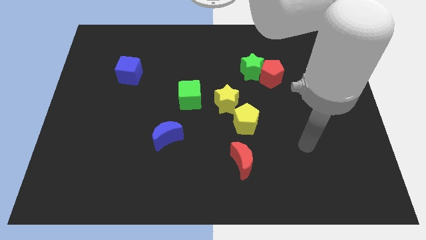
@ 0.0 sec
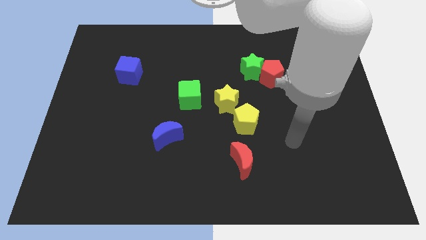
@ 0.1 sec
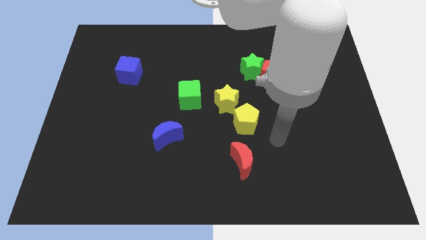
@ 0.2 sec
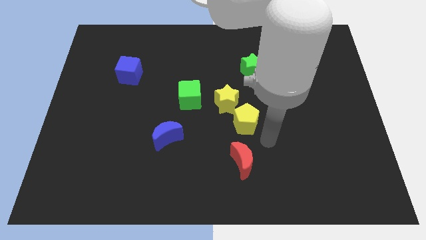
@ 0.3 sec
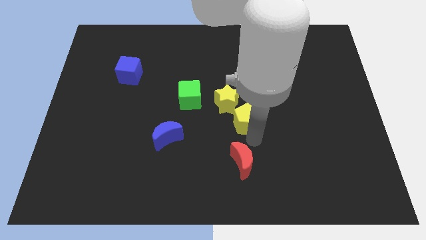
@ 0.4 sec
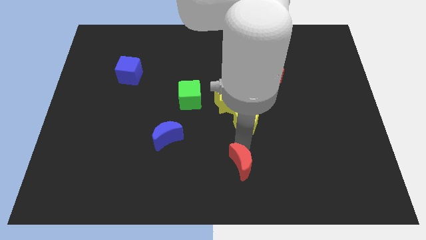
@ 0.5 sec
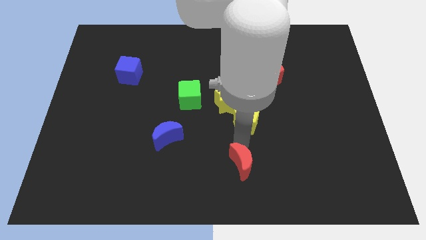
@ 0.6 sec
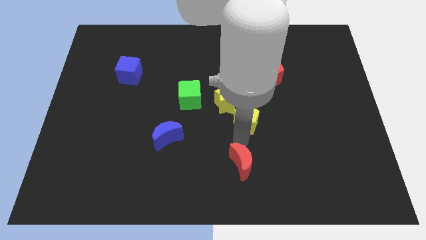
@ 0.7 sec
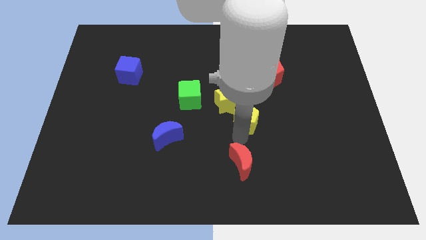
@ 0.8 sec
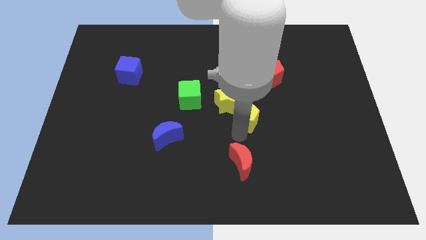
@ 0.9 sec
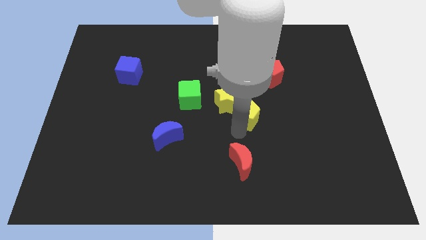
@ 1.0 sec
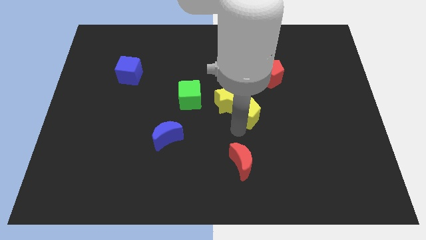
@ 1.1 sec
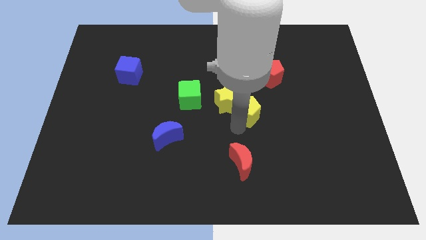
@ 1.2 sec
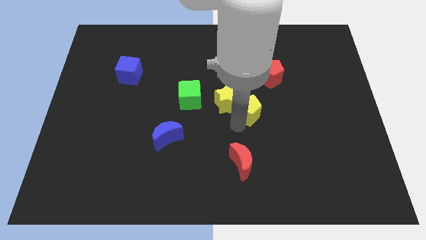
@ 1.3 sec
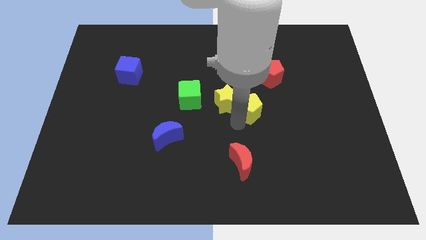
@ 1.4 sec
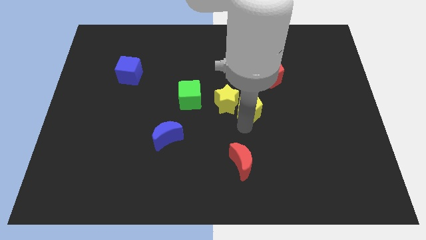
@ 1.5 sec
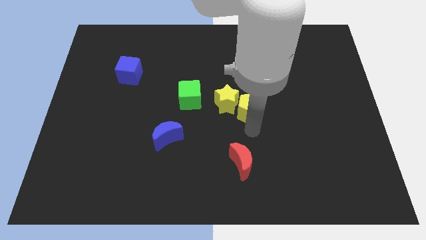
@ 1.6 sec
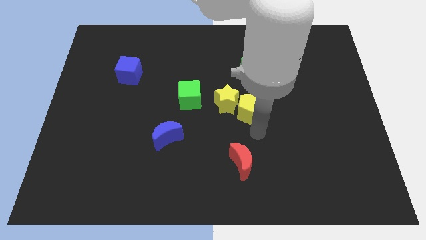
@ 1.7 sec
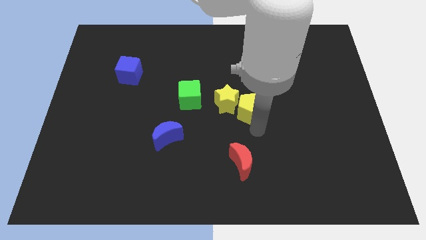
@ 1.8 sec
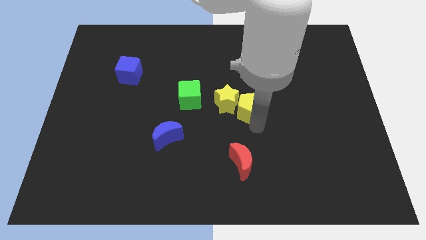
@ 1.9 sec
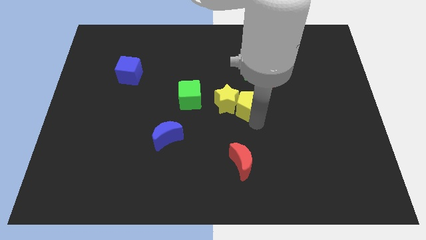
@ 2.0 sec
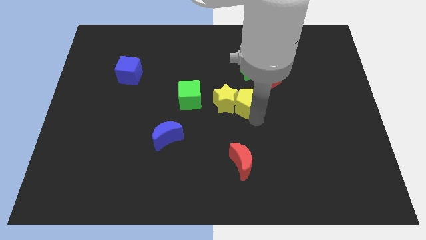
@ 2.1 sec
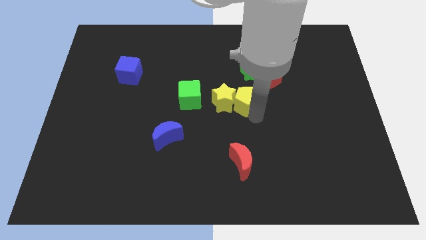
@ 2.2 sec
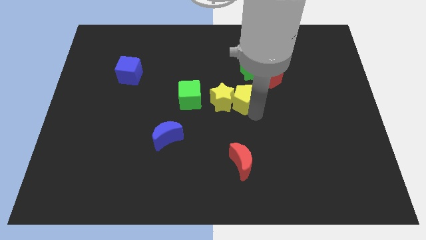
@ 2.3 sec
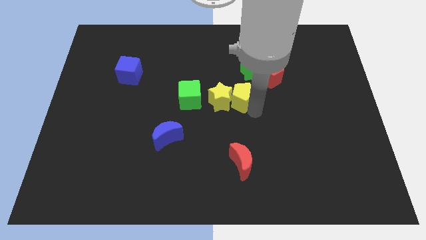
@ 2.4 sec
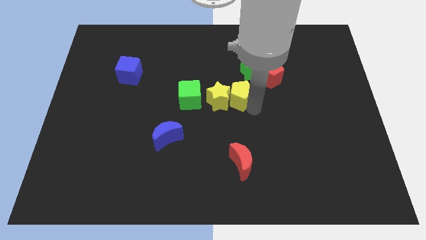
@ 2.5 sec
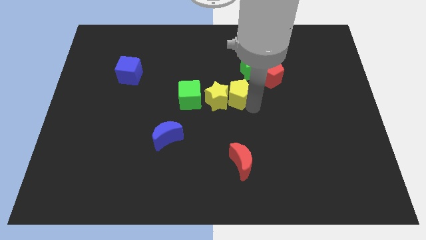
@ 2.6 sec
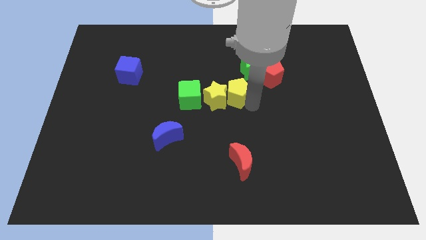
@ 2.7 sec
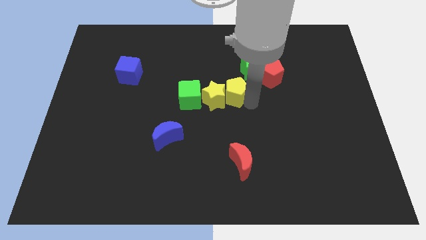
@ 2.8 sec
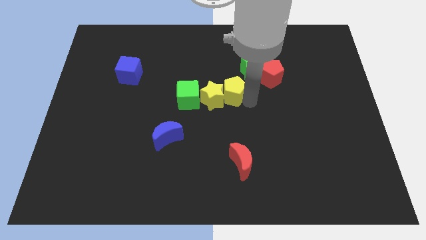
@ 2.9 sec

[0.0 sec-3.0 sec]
push the yellow pentagon somewhat upwards and to the left diagonally

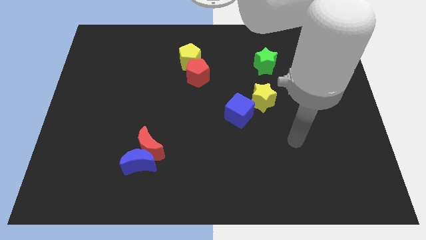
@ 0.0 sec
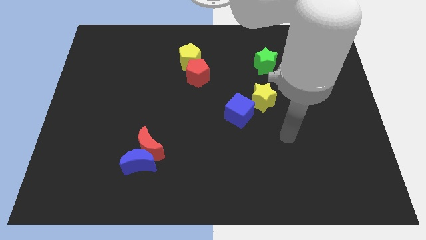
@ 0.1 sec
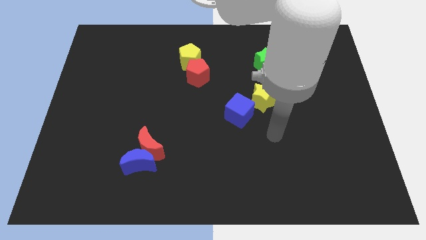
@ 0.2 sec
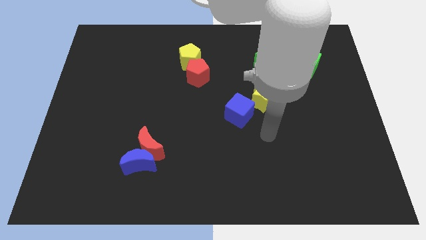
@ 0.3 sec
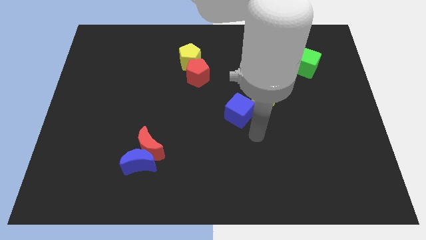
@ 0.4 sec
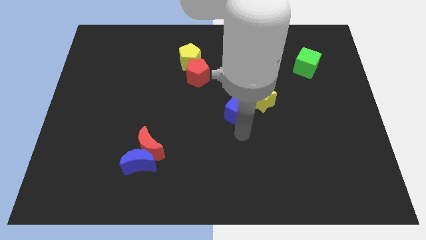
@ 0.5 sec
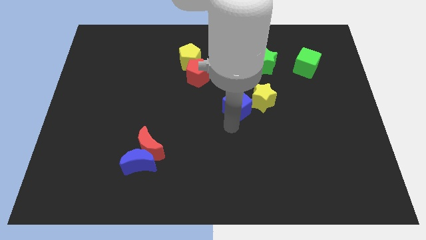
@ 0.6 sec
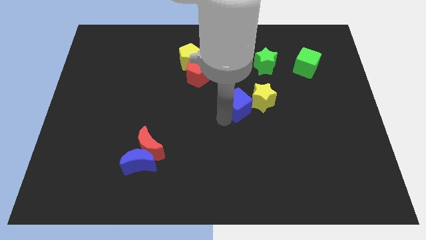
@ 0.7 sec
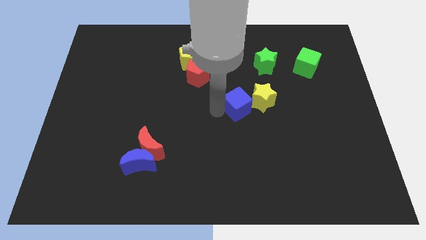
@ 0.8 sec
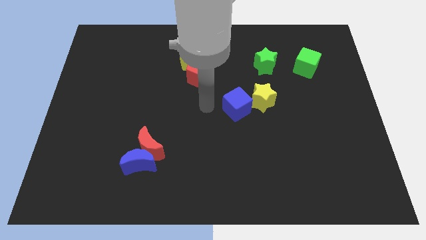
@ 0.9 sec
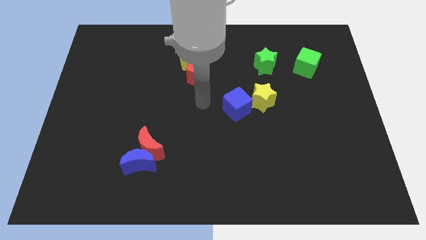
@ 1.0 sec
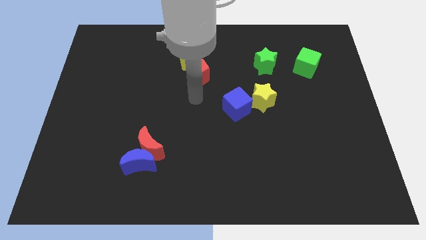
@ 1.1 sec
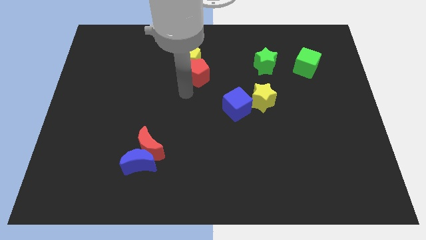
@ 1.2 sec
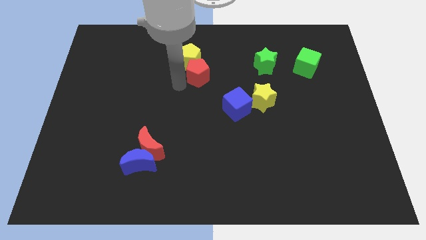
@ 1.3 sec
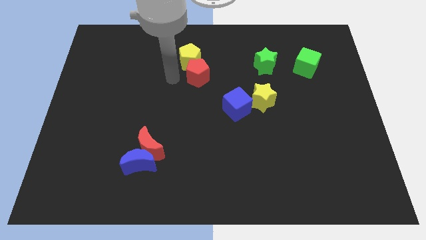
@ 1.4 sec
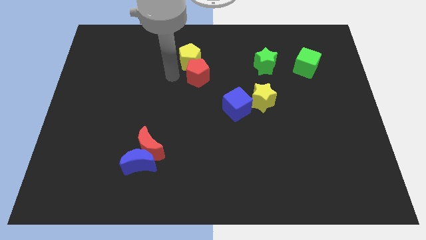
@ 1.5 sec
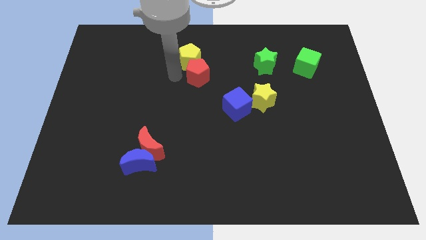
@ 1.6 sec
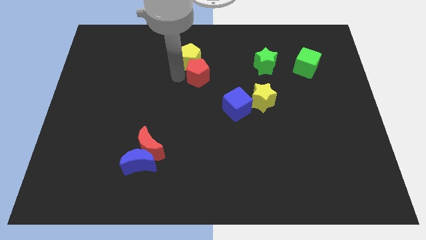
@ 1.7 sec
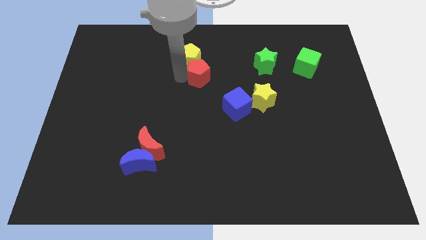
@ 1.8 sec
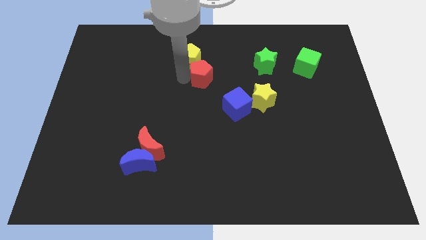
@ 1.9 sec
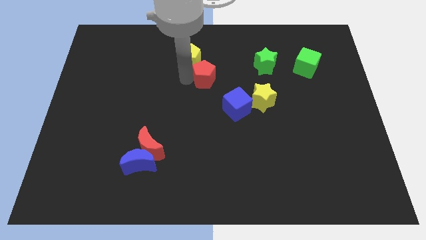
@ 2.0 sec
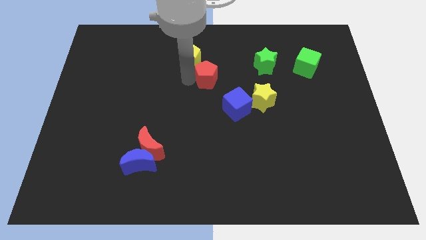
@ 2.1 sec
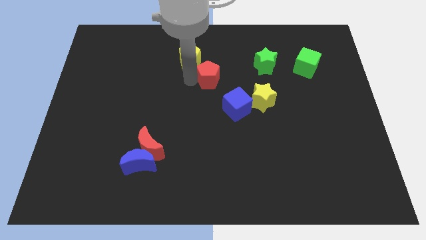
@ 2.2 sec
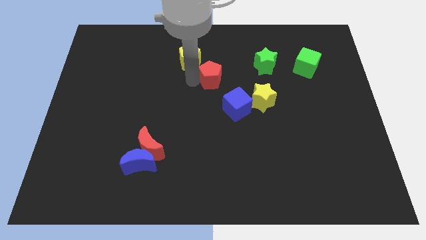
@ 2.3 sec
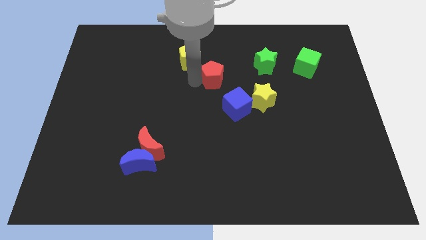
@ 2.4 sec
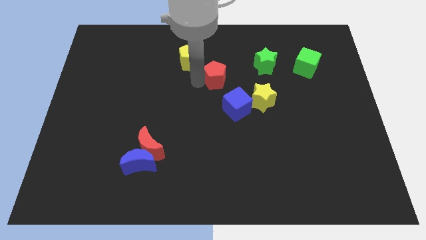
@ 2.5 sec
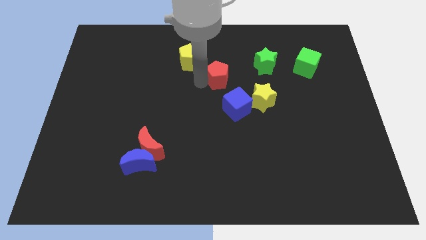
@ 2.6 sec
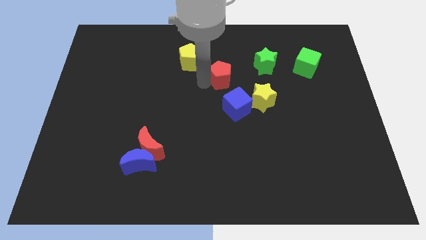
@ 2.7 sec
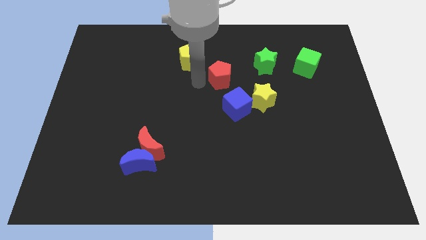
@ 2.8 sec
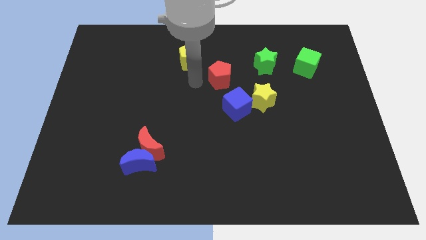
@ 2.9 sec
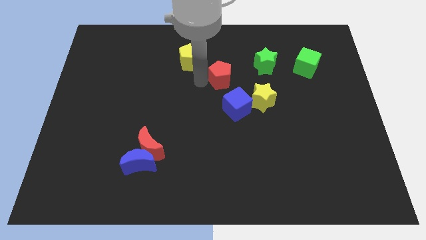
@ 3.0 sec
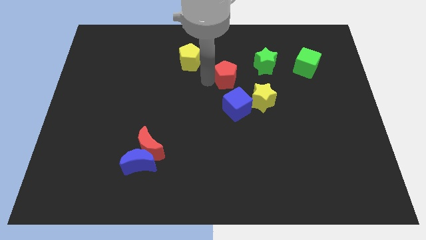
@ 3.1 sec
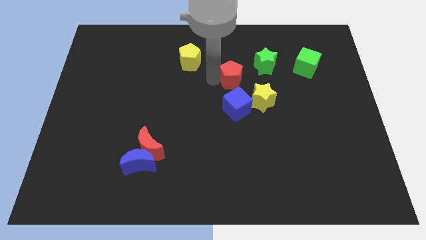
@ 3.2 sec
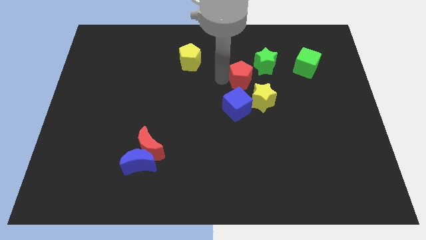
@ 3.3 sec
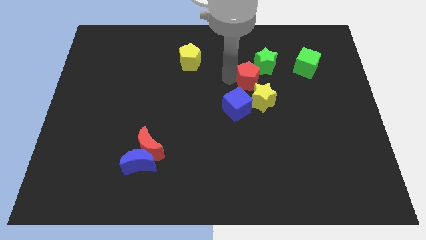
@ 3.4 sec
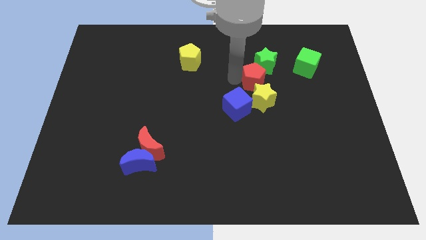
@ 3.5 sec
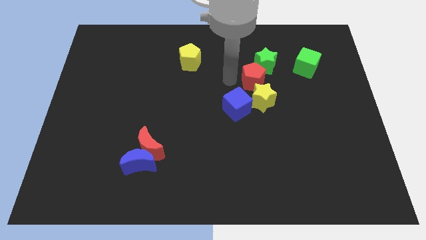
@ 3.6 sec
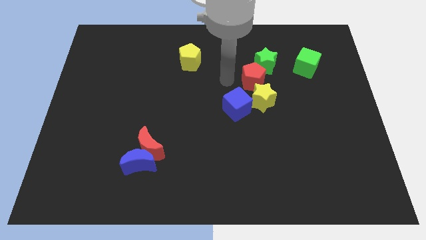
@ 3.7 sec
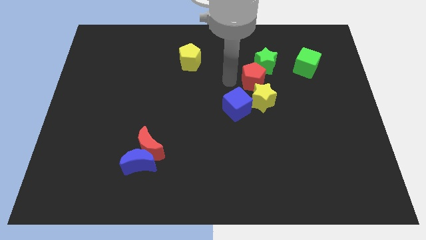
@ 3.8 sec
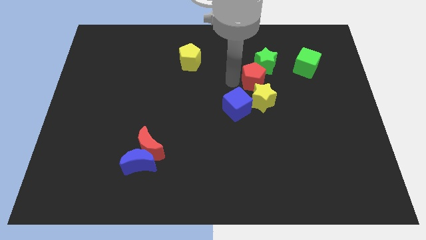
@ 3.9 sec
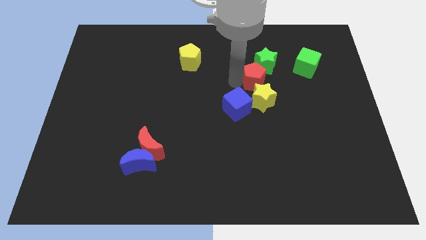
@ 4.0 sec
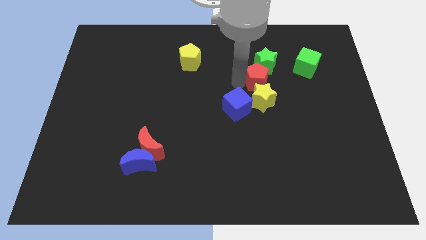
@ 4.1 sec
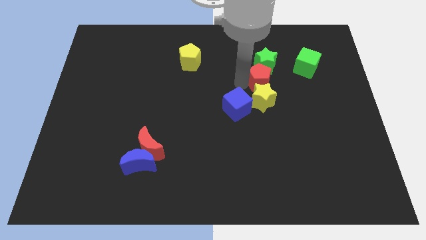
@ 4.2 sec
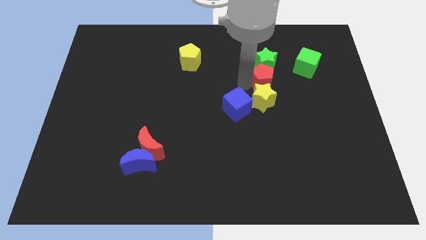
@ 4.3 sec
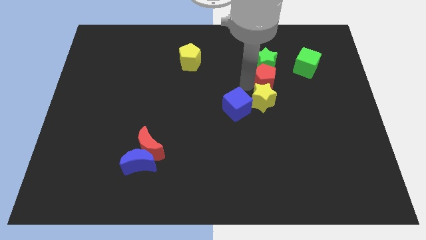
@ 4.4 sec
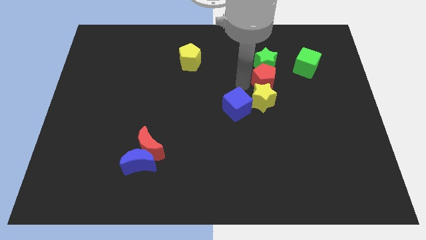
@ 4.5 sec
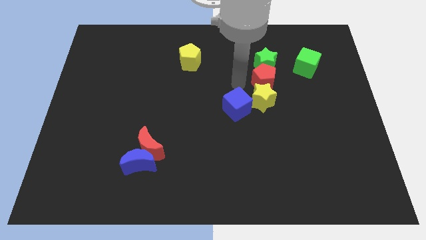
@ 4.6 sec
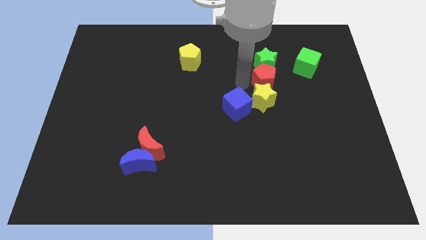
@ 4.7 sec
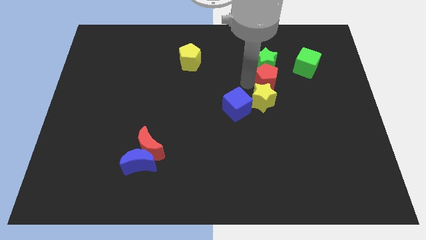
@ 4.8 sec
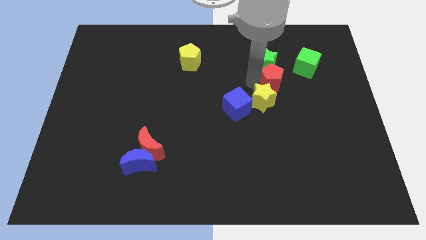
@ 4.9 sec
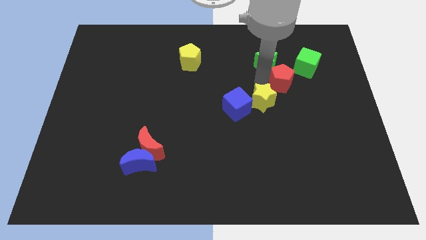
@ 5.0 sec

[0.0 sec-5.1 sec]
move the red pentagon to the right
